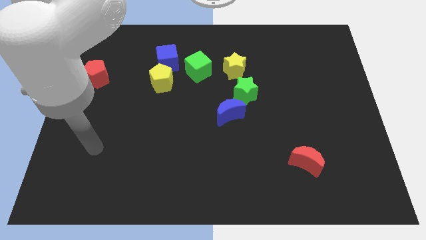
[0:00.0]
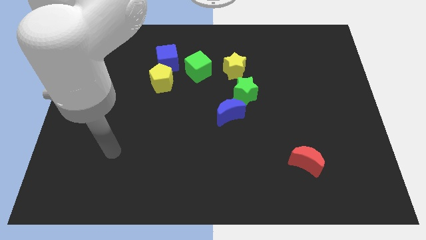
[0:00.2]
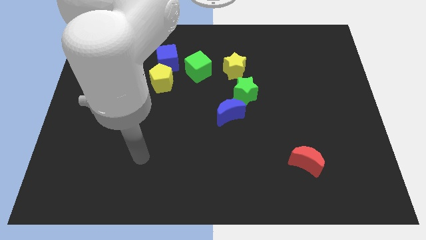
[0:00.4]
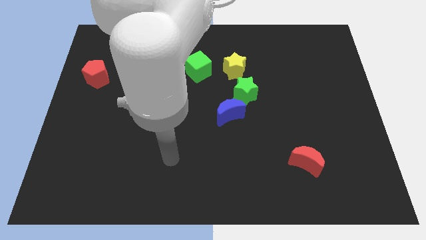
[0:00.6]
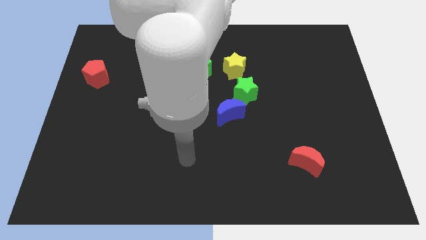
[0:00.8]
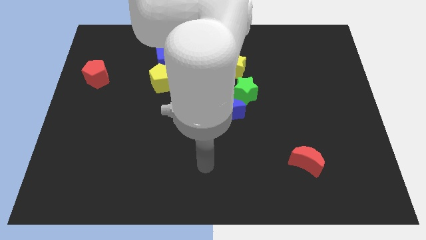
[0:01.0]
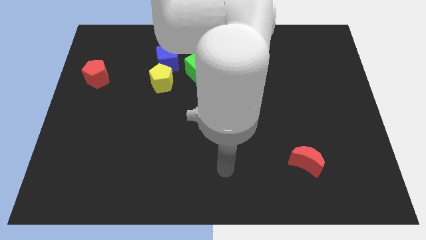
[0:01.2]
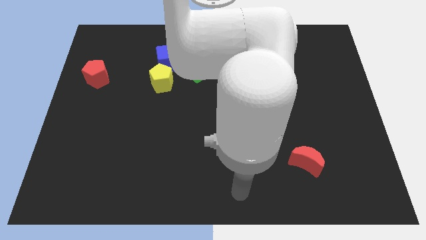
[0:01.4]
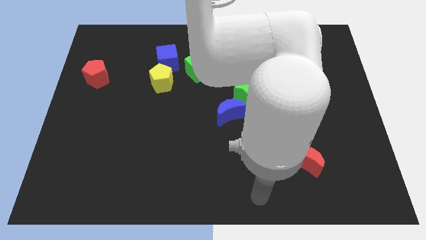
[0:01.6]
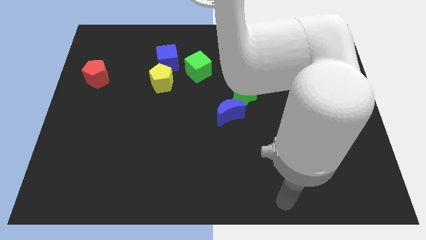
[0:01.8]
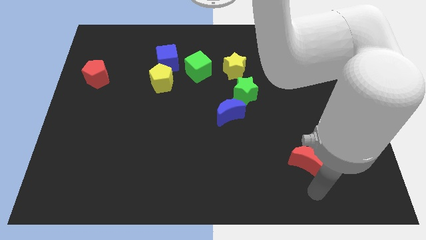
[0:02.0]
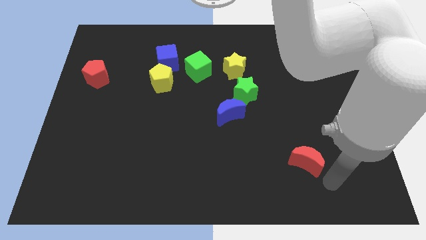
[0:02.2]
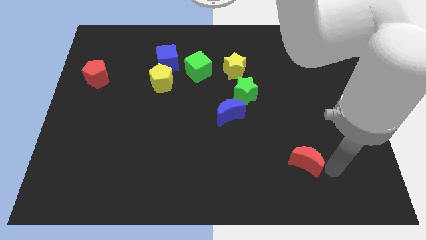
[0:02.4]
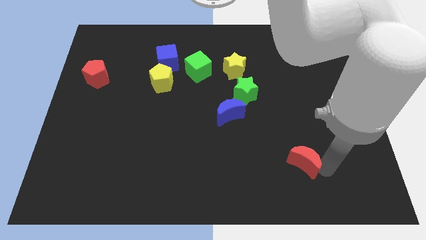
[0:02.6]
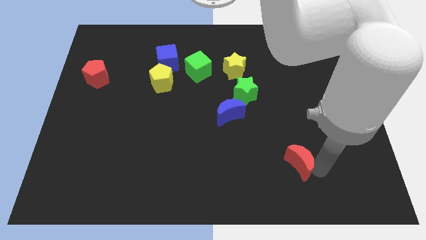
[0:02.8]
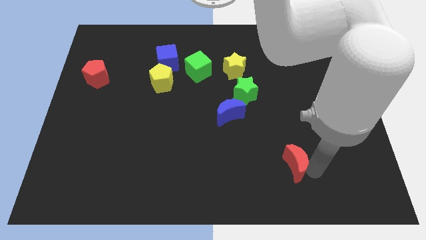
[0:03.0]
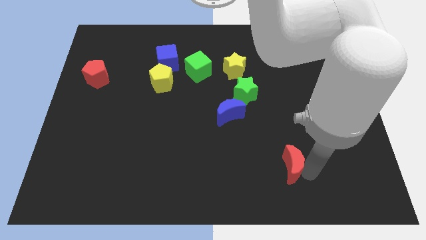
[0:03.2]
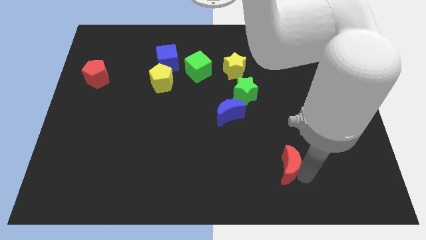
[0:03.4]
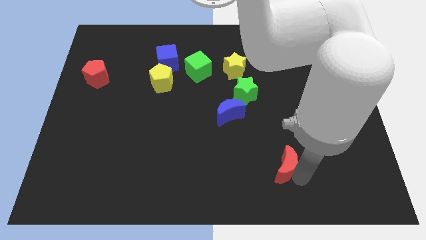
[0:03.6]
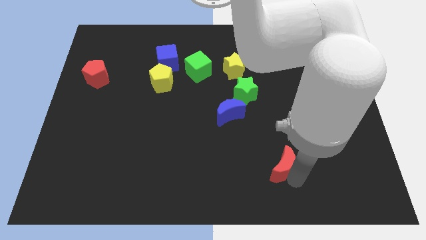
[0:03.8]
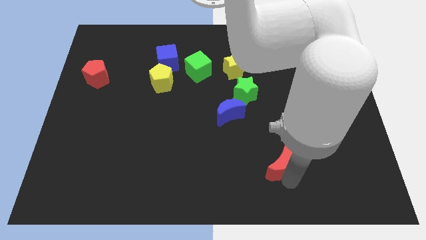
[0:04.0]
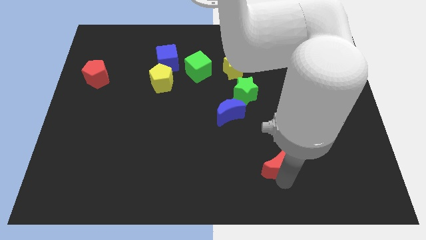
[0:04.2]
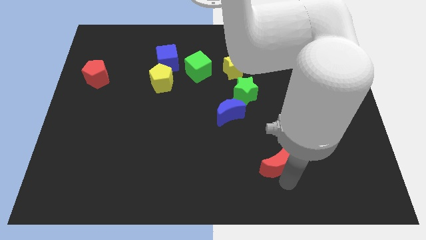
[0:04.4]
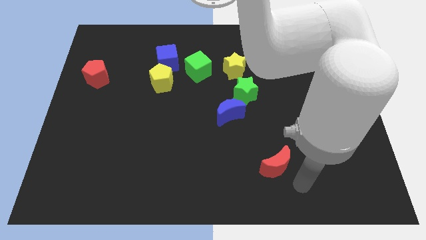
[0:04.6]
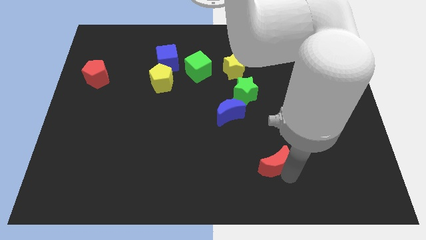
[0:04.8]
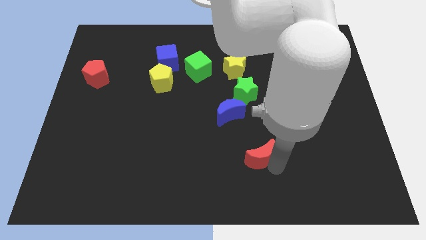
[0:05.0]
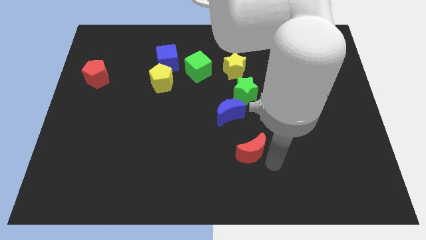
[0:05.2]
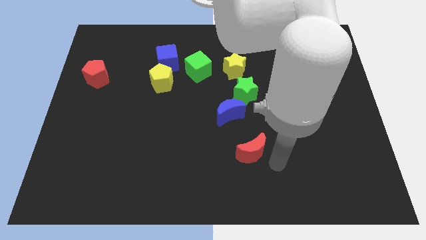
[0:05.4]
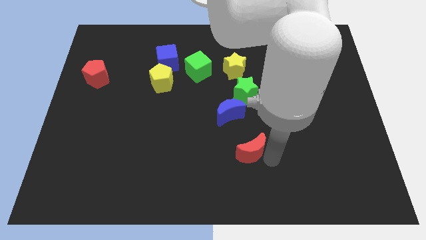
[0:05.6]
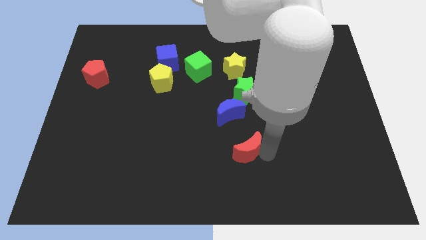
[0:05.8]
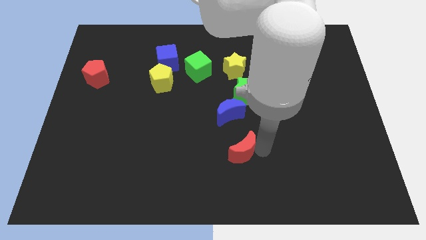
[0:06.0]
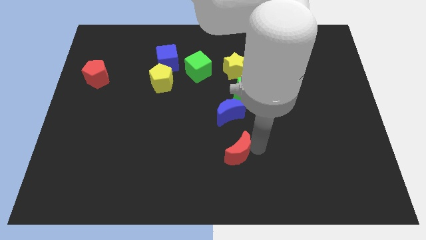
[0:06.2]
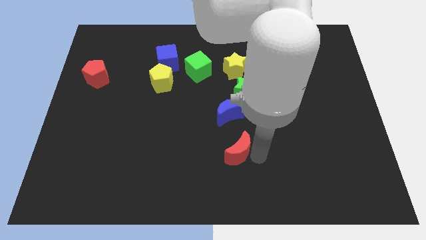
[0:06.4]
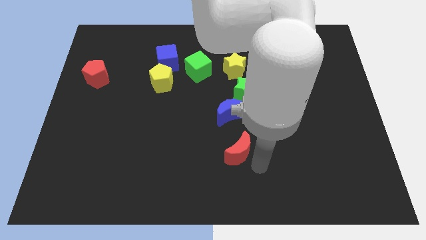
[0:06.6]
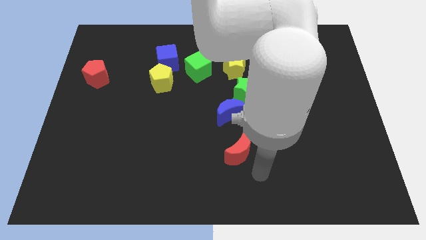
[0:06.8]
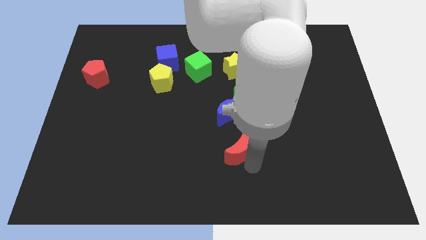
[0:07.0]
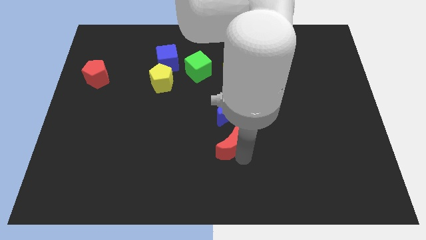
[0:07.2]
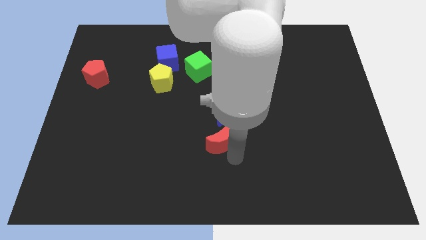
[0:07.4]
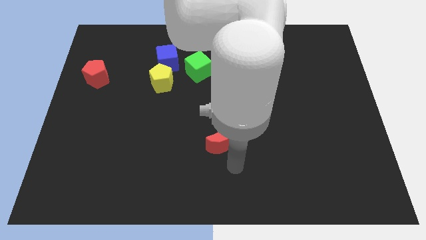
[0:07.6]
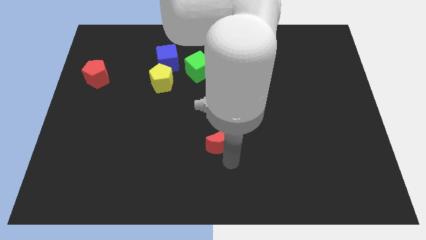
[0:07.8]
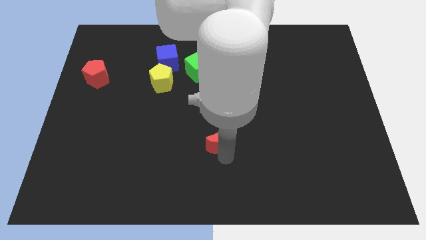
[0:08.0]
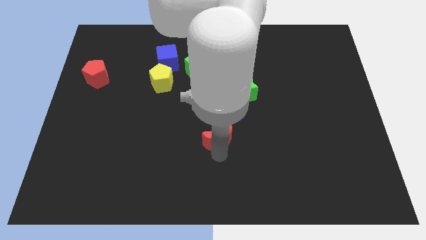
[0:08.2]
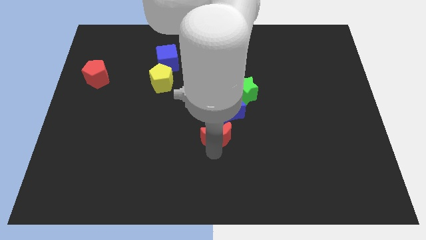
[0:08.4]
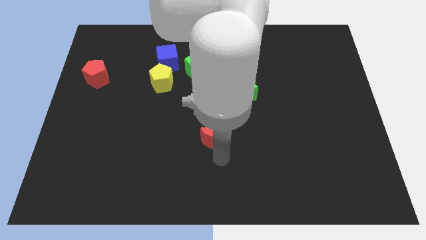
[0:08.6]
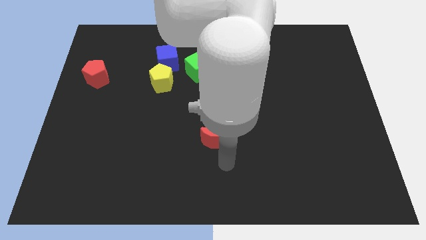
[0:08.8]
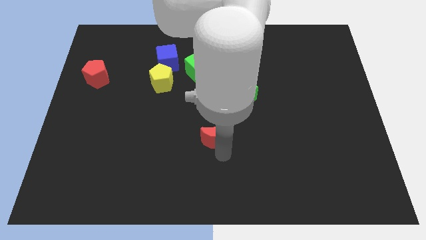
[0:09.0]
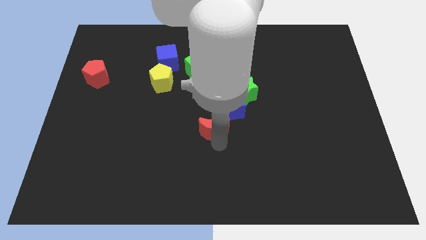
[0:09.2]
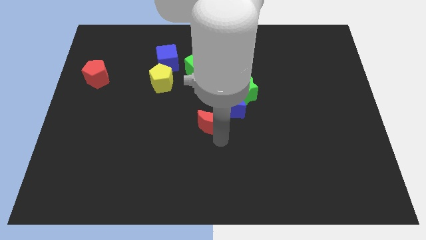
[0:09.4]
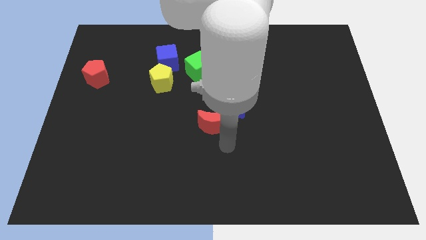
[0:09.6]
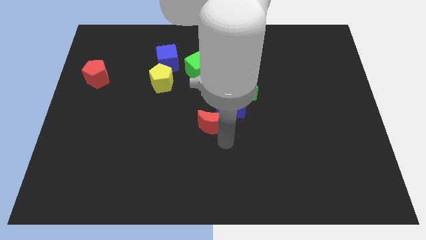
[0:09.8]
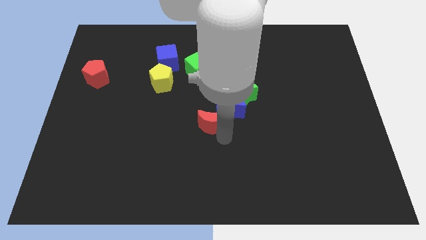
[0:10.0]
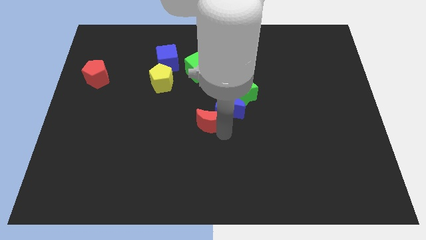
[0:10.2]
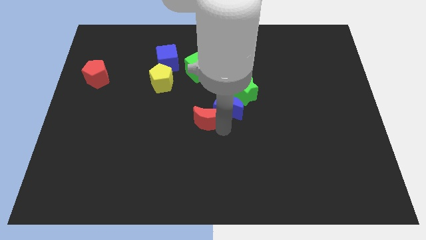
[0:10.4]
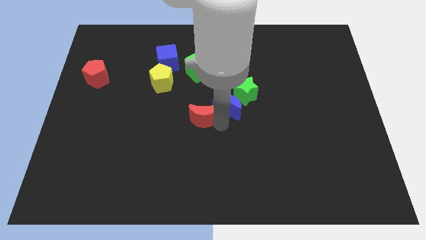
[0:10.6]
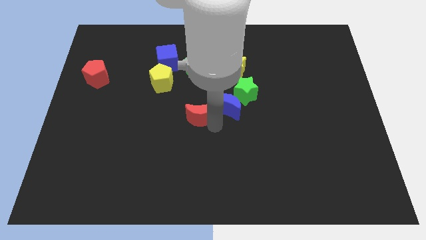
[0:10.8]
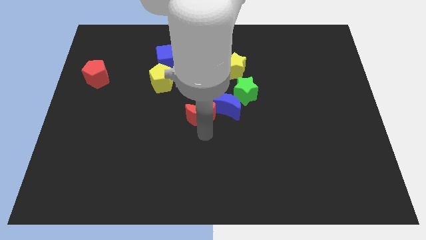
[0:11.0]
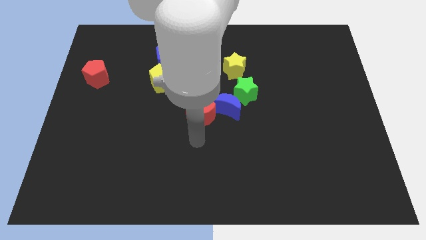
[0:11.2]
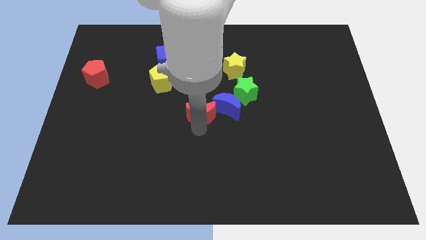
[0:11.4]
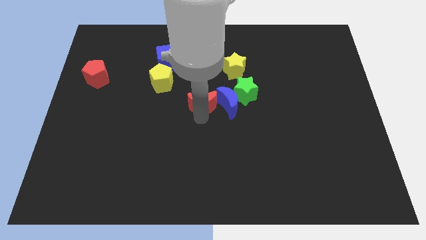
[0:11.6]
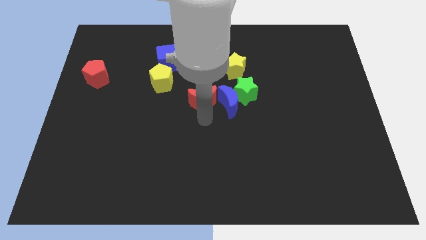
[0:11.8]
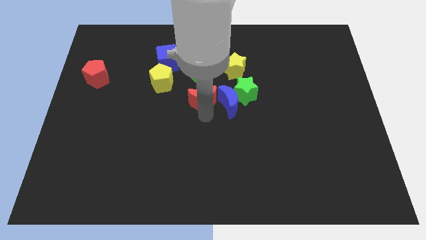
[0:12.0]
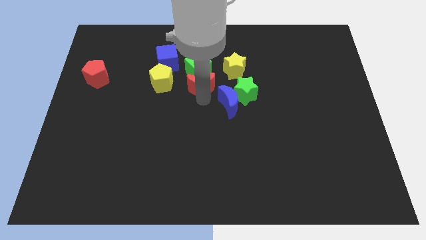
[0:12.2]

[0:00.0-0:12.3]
put the red moon to the green cube

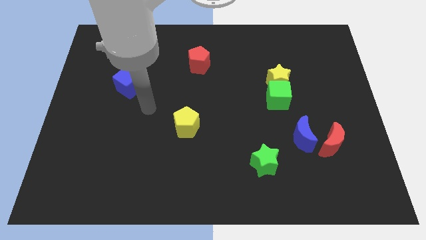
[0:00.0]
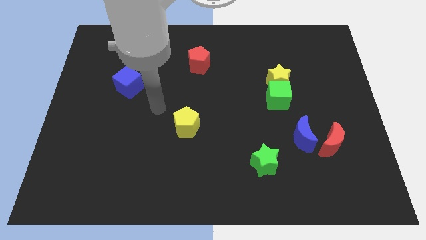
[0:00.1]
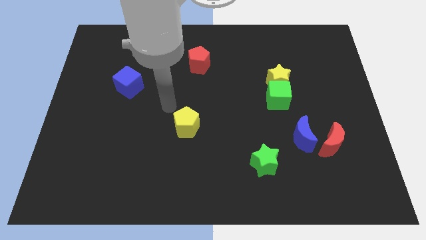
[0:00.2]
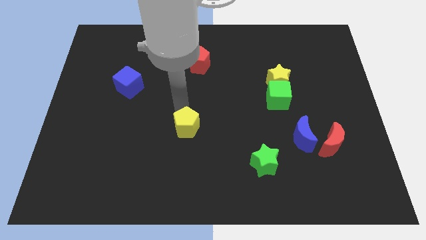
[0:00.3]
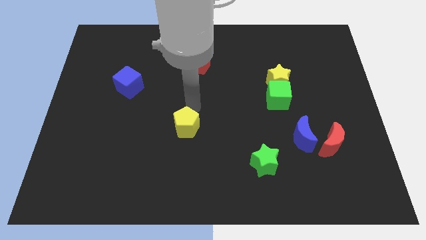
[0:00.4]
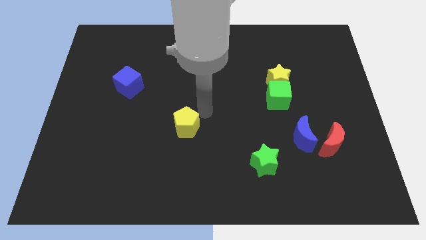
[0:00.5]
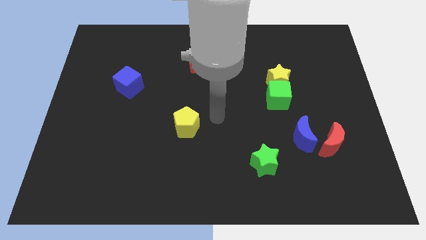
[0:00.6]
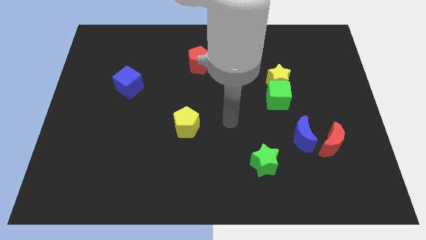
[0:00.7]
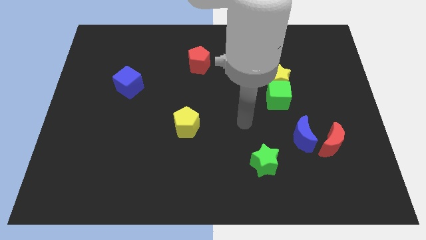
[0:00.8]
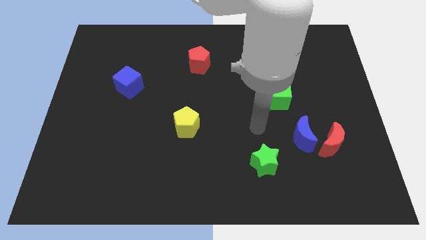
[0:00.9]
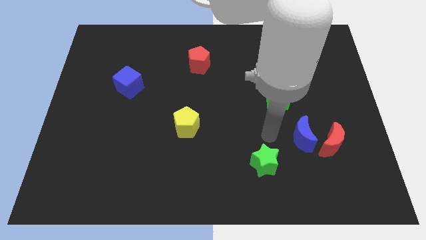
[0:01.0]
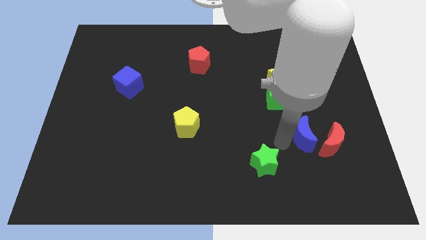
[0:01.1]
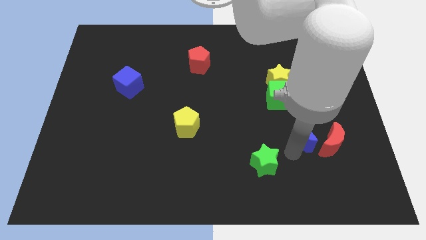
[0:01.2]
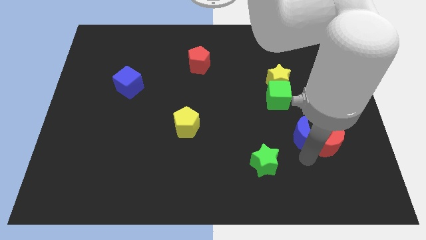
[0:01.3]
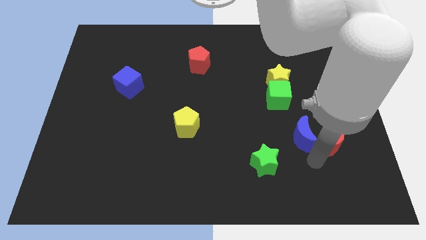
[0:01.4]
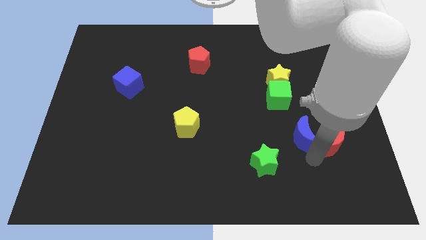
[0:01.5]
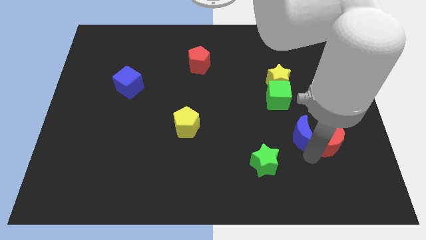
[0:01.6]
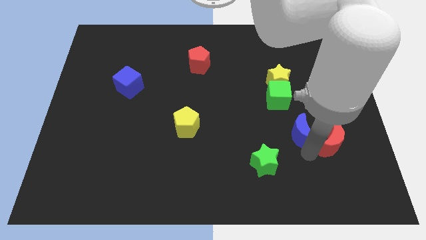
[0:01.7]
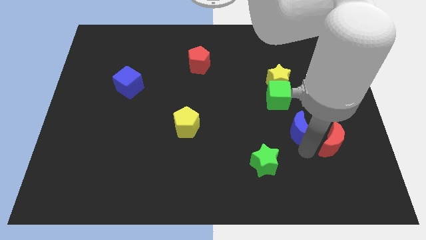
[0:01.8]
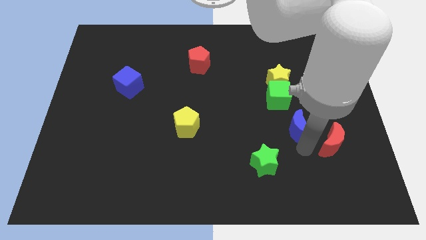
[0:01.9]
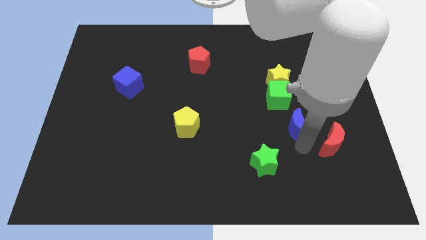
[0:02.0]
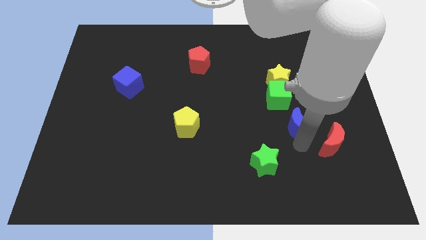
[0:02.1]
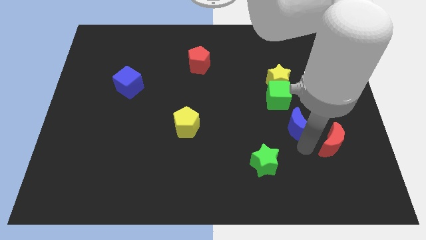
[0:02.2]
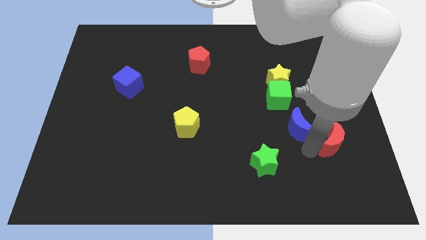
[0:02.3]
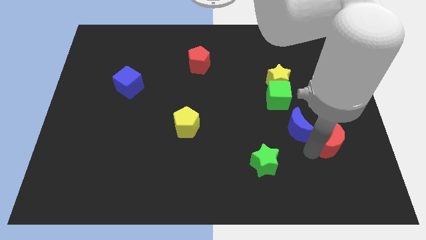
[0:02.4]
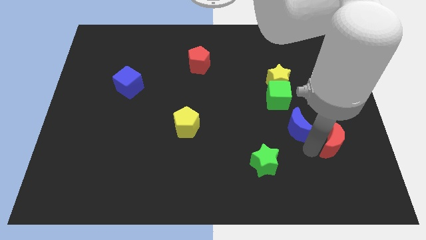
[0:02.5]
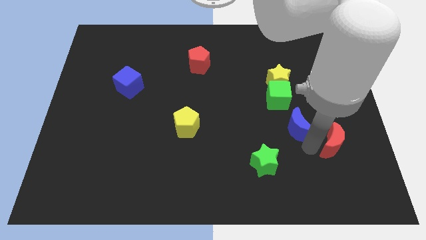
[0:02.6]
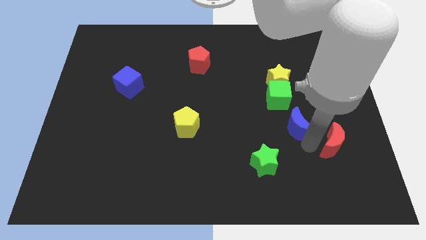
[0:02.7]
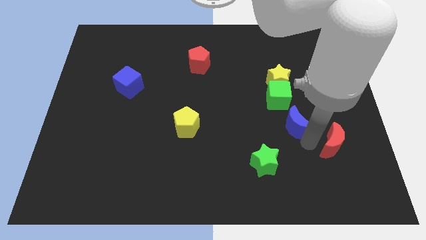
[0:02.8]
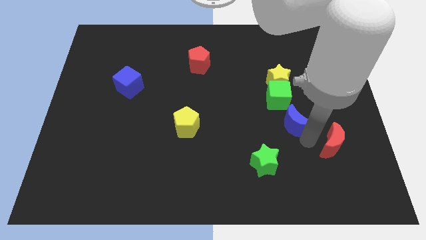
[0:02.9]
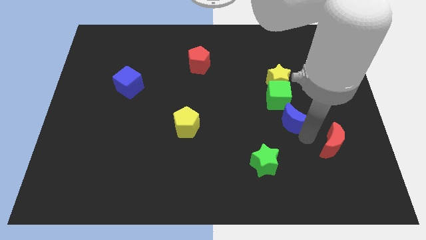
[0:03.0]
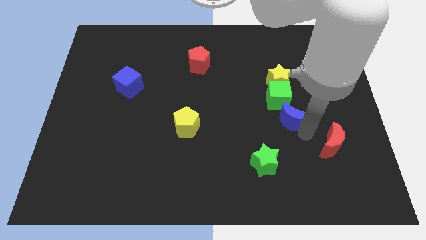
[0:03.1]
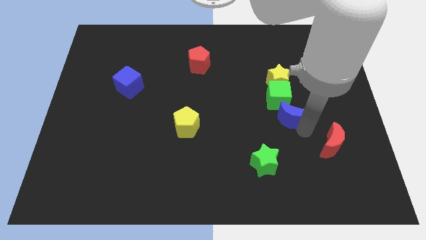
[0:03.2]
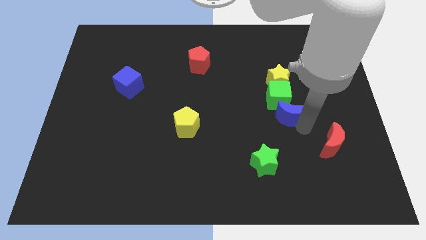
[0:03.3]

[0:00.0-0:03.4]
move the blue moon next to the green cube
